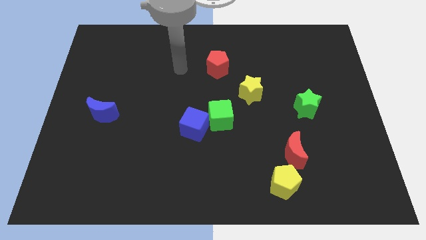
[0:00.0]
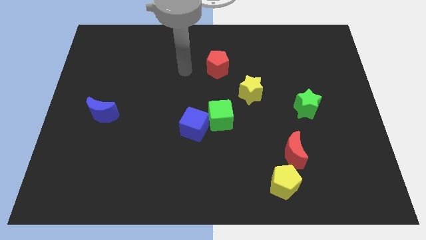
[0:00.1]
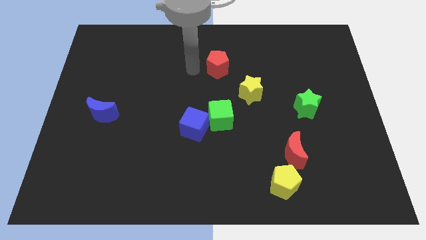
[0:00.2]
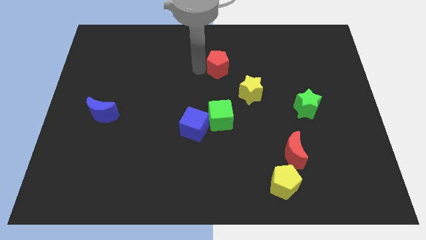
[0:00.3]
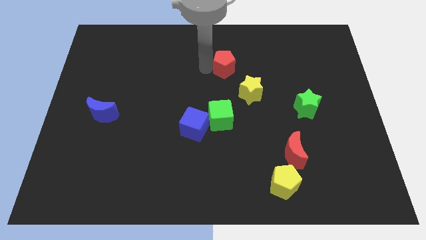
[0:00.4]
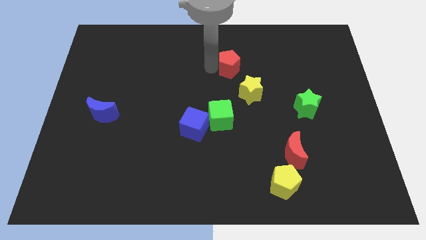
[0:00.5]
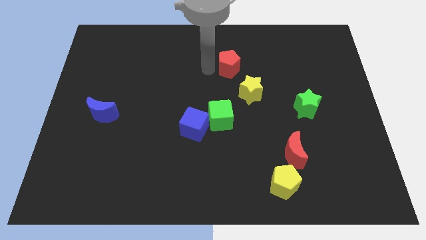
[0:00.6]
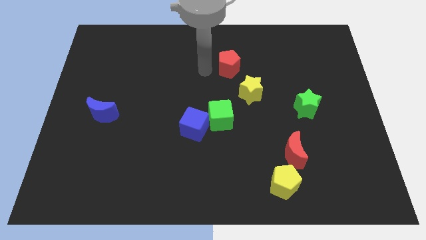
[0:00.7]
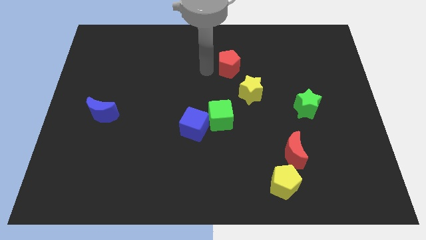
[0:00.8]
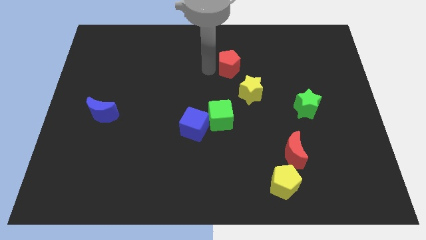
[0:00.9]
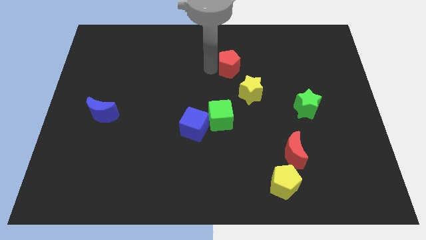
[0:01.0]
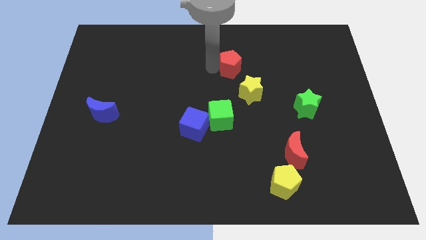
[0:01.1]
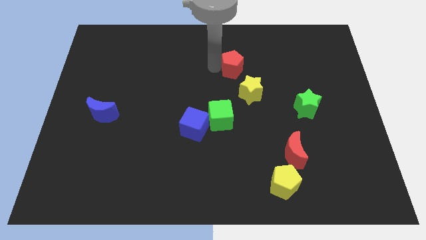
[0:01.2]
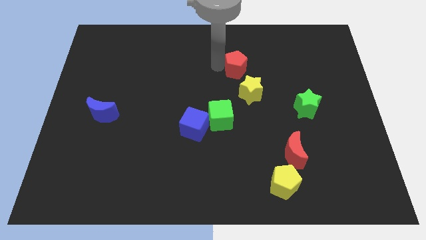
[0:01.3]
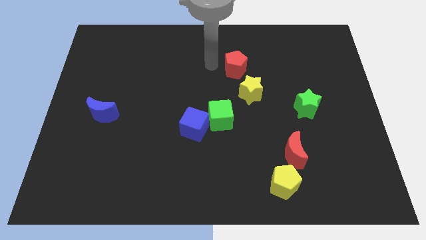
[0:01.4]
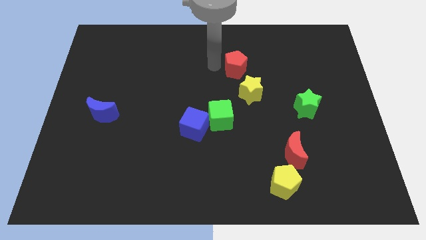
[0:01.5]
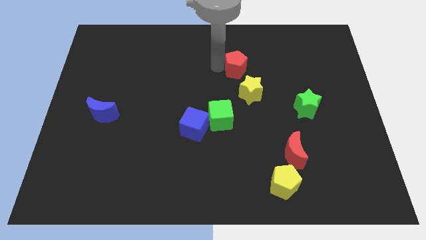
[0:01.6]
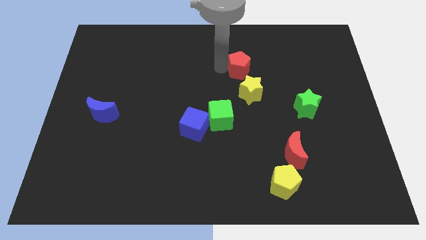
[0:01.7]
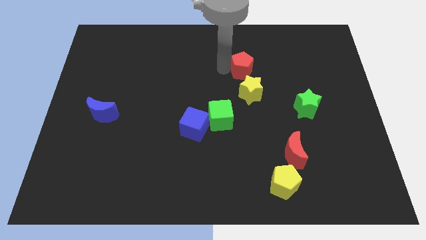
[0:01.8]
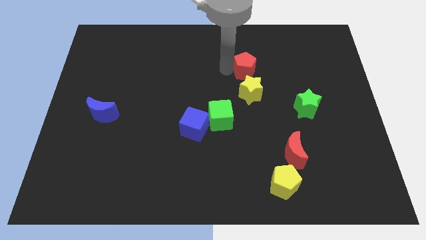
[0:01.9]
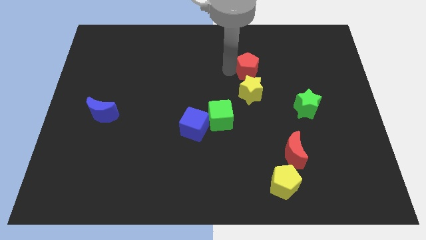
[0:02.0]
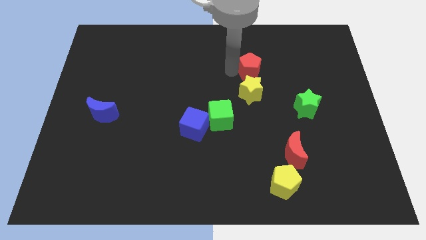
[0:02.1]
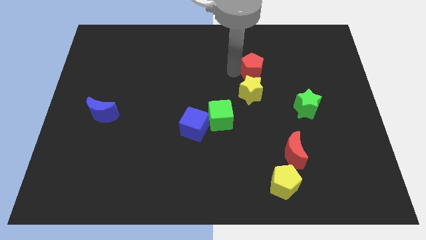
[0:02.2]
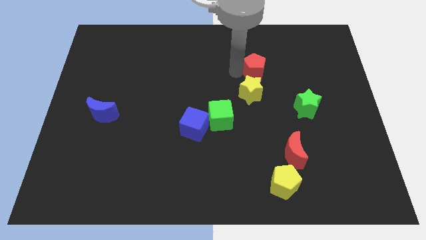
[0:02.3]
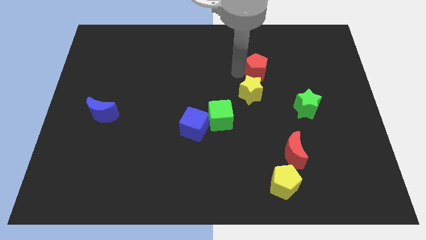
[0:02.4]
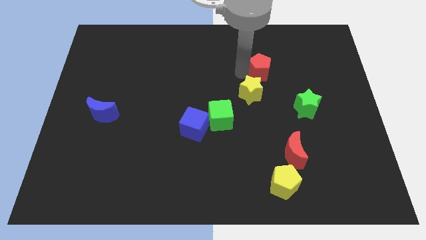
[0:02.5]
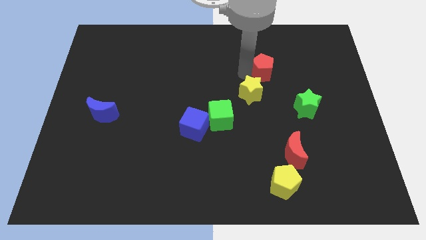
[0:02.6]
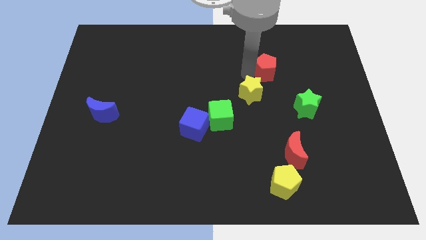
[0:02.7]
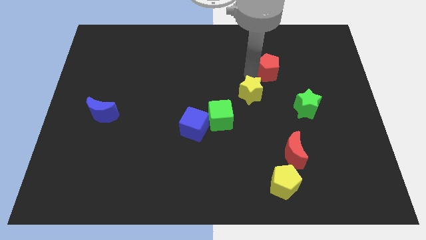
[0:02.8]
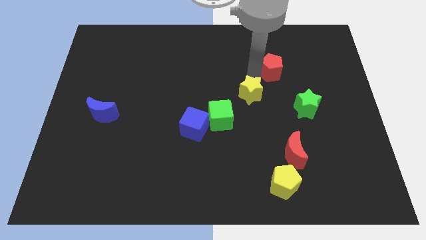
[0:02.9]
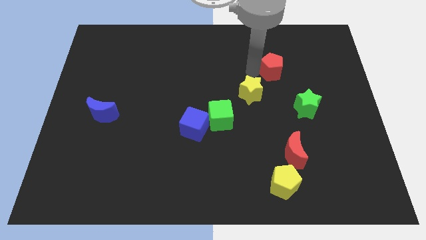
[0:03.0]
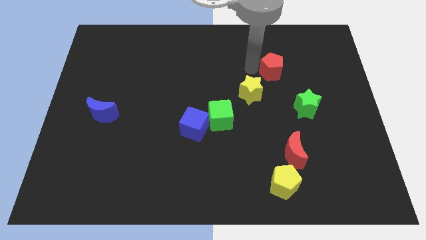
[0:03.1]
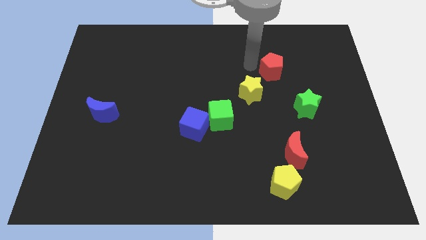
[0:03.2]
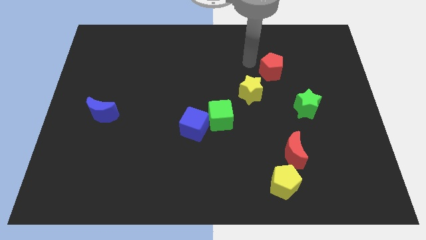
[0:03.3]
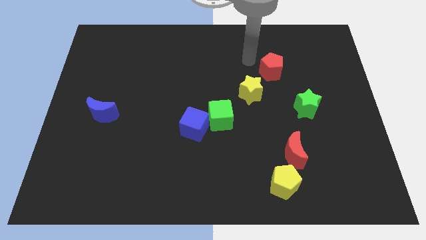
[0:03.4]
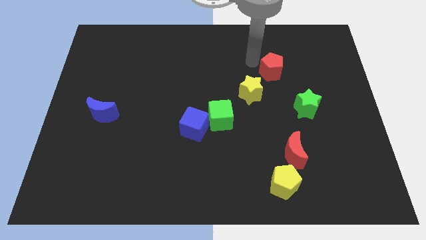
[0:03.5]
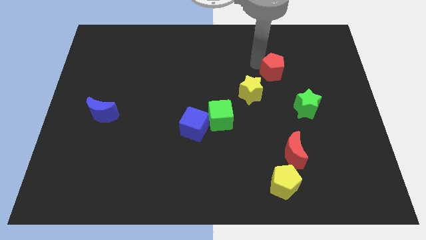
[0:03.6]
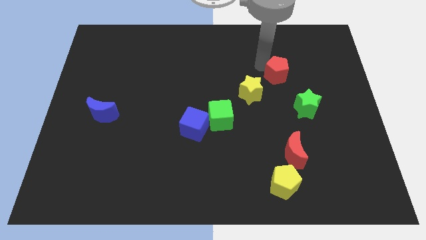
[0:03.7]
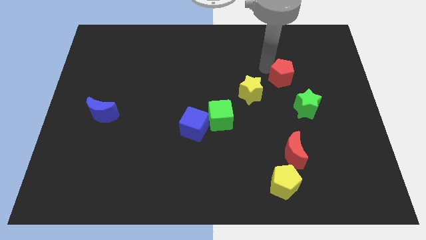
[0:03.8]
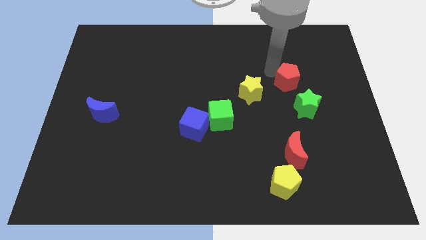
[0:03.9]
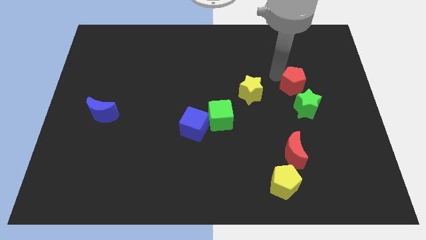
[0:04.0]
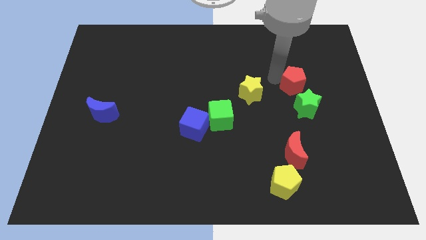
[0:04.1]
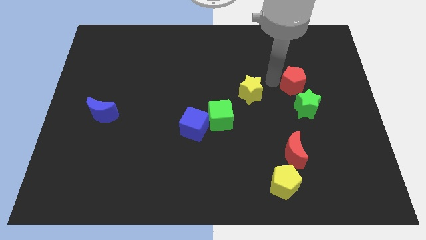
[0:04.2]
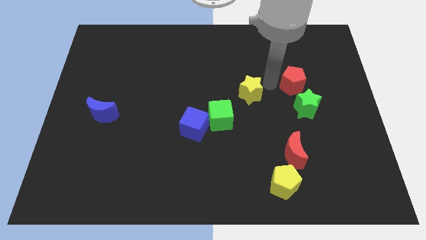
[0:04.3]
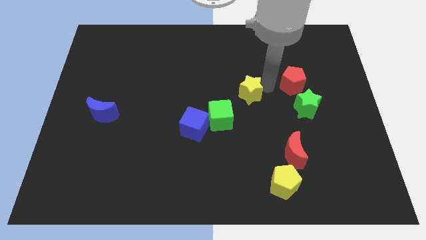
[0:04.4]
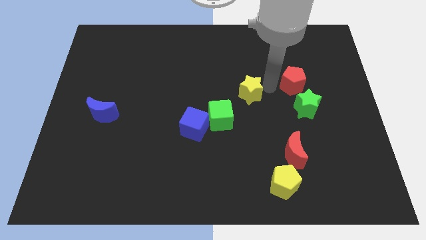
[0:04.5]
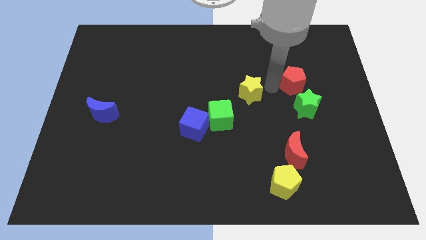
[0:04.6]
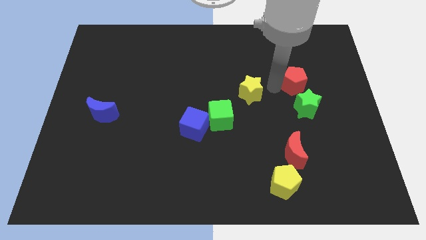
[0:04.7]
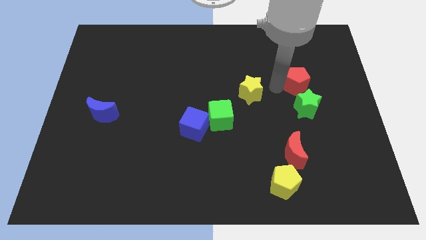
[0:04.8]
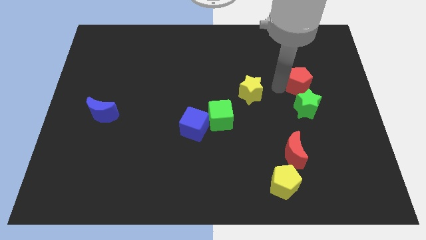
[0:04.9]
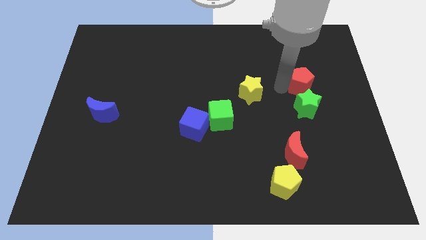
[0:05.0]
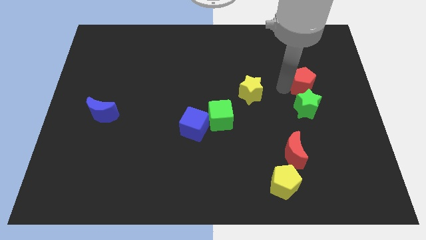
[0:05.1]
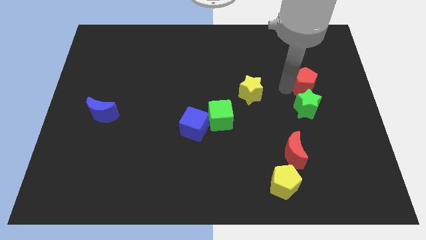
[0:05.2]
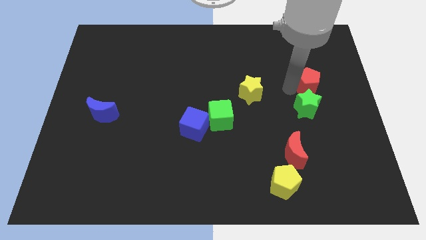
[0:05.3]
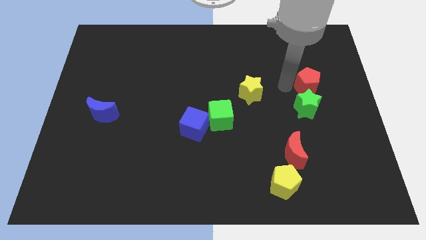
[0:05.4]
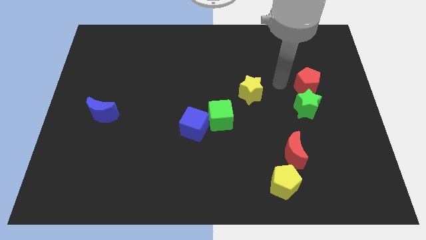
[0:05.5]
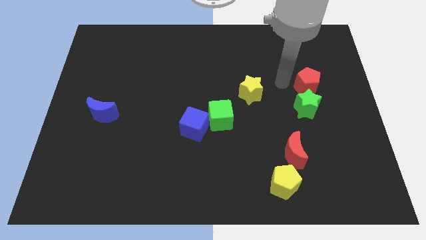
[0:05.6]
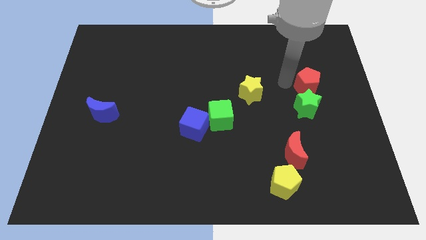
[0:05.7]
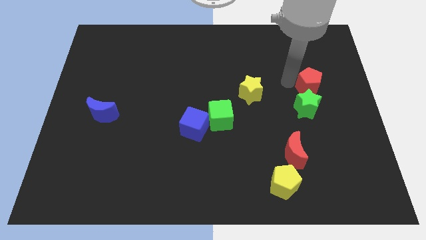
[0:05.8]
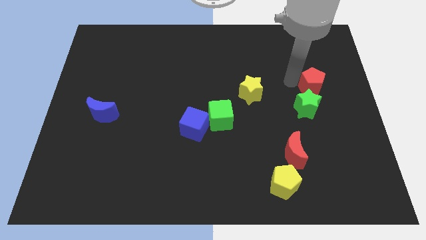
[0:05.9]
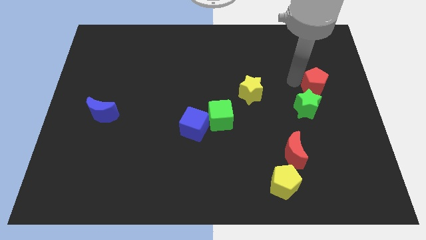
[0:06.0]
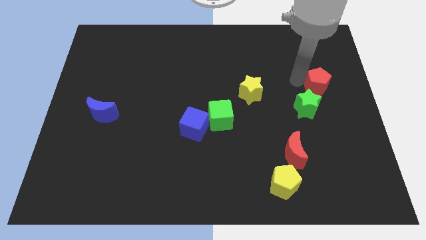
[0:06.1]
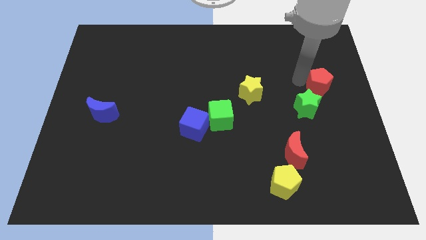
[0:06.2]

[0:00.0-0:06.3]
move the red pentagon to the right side of the board
